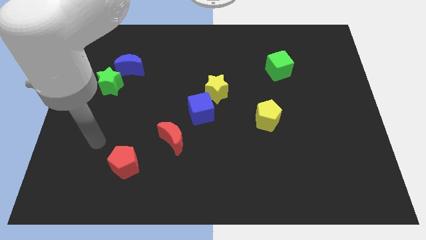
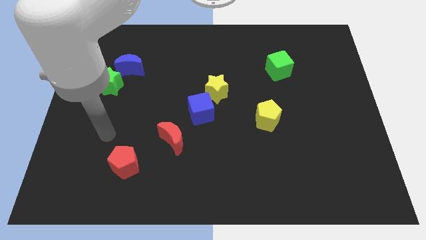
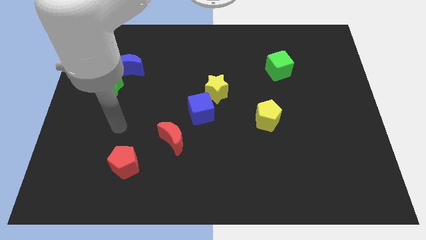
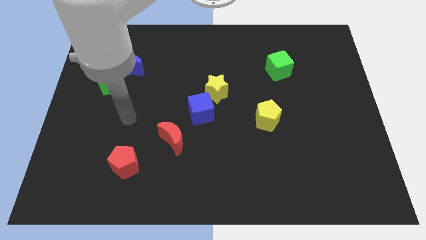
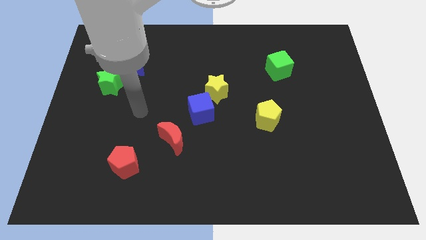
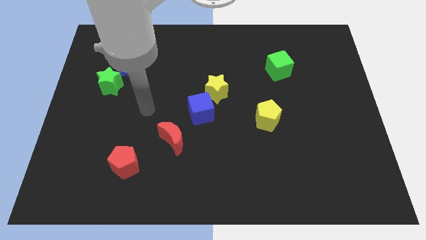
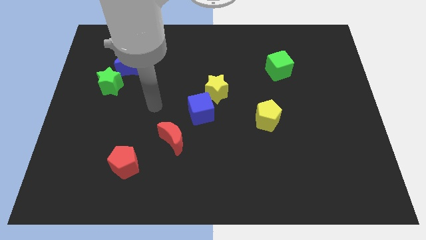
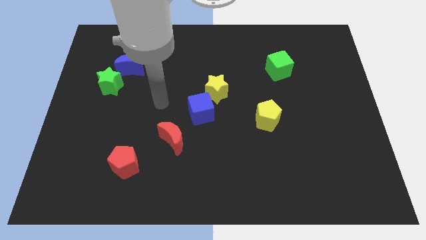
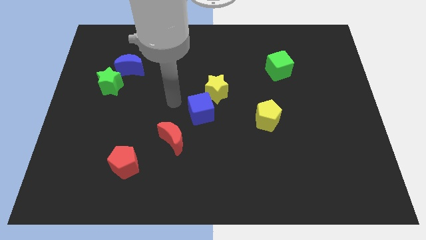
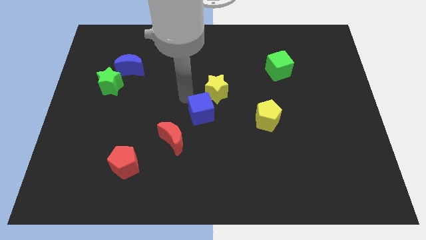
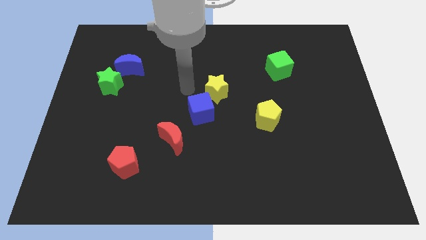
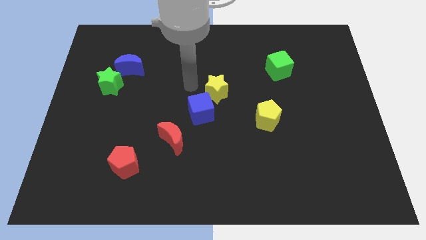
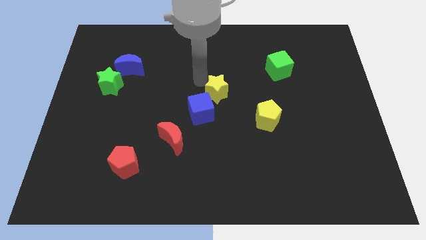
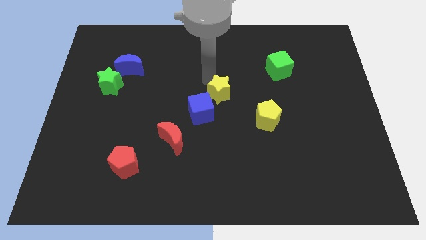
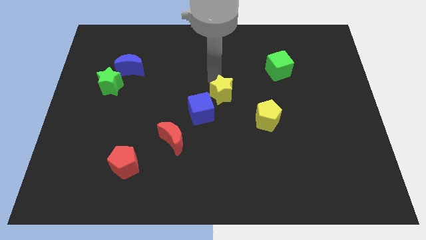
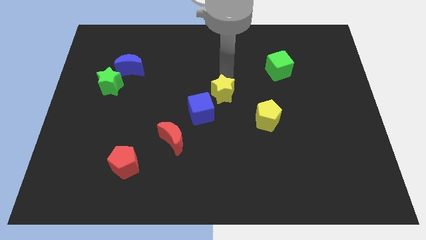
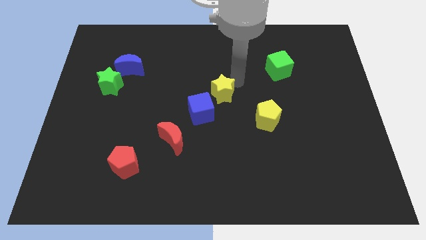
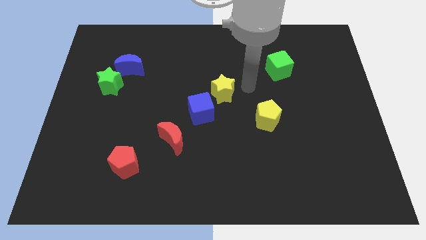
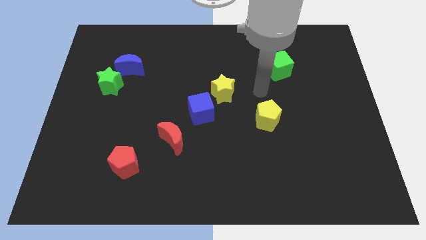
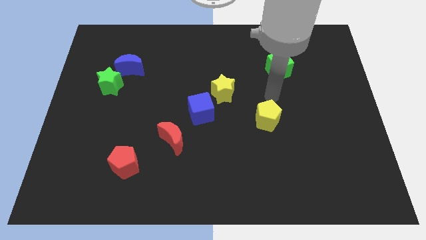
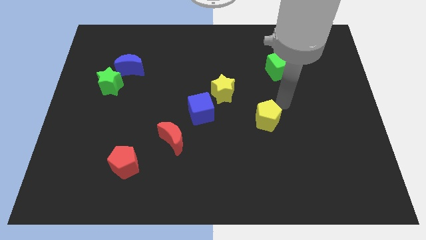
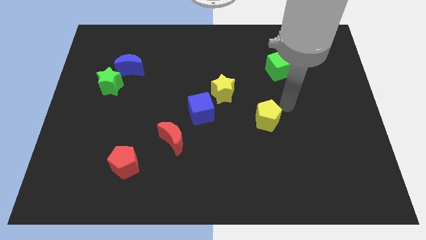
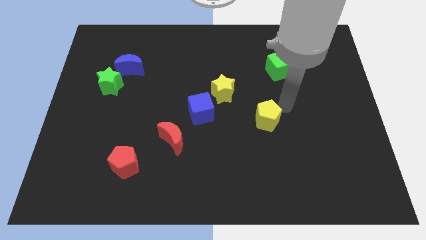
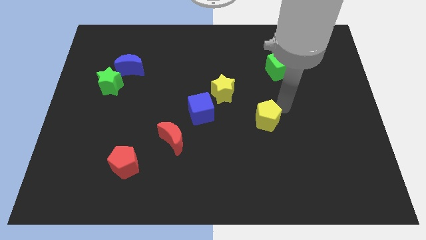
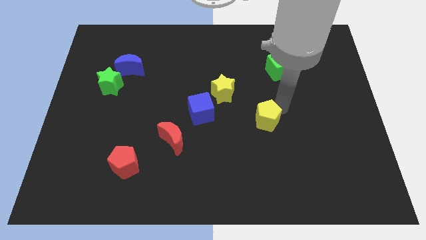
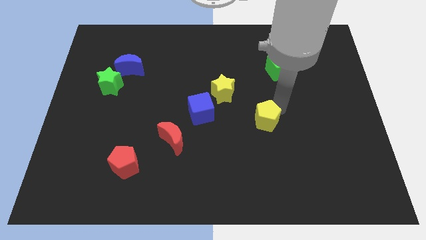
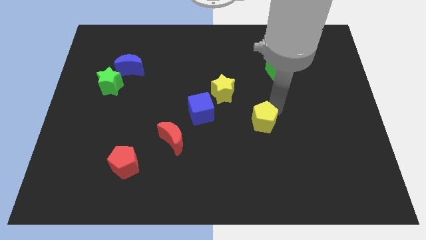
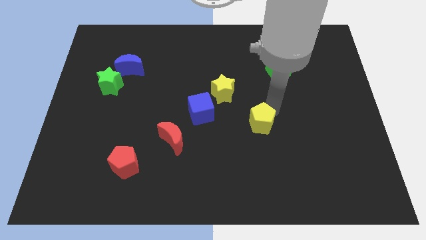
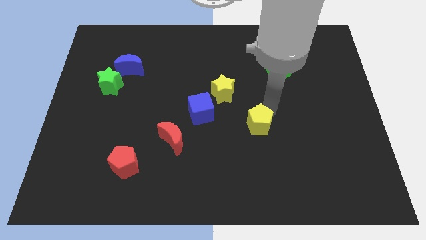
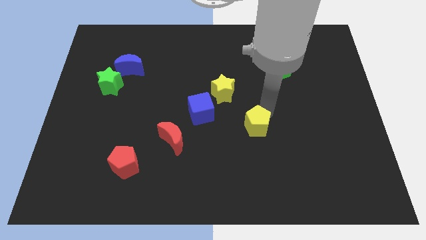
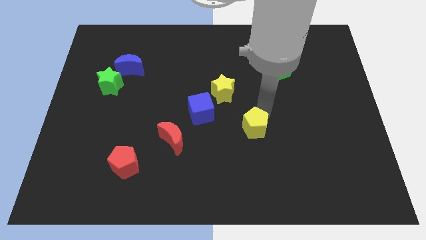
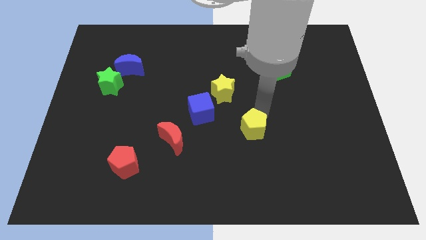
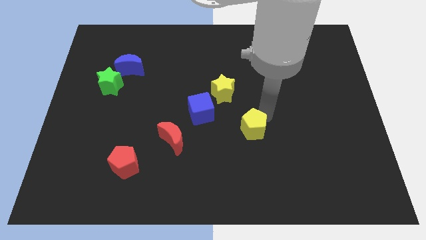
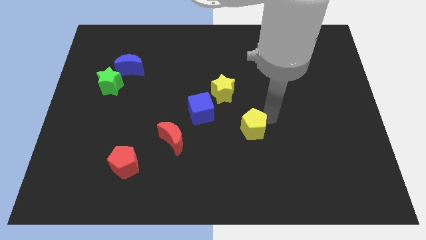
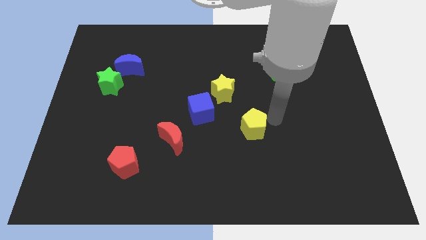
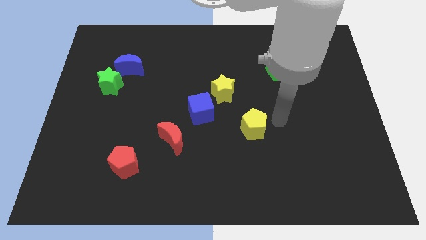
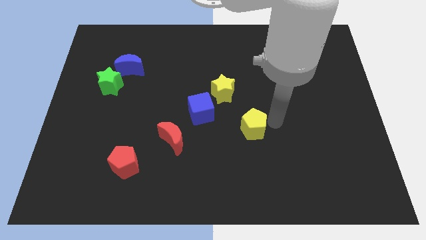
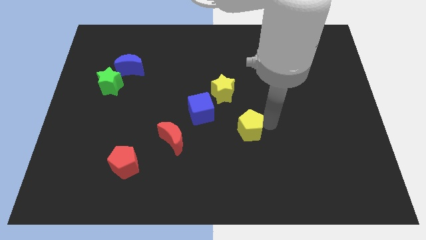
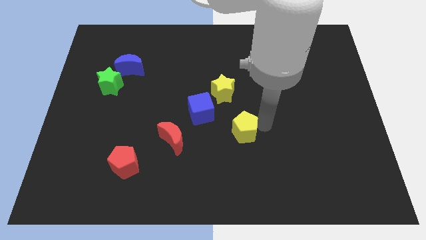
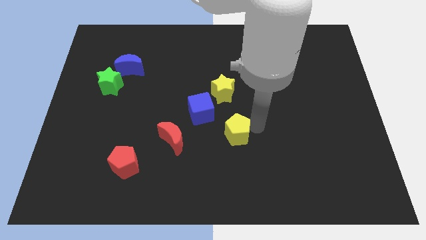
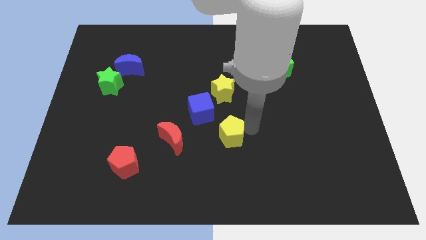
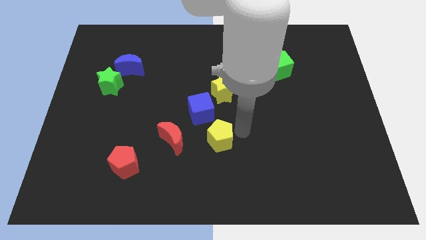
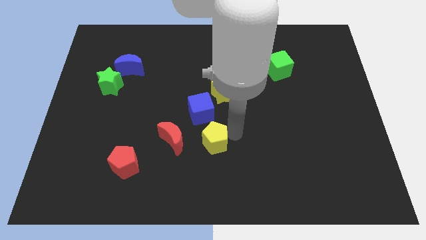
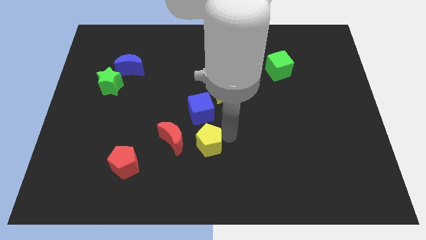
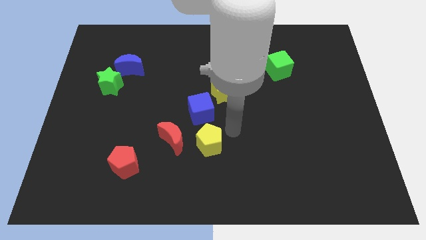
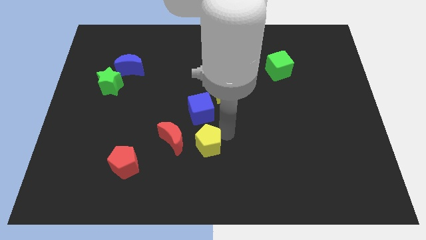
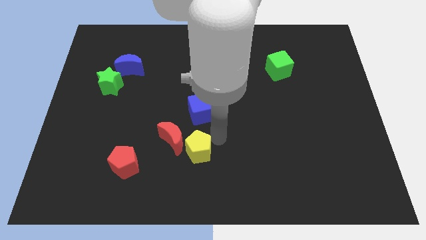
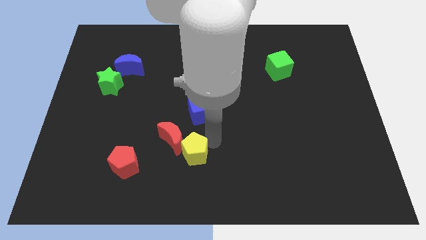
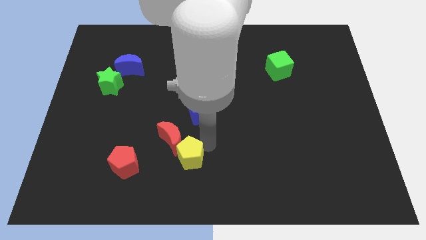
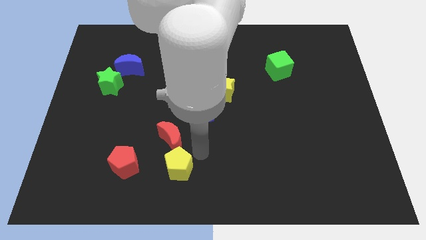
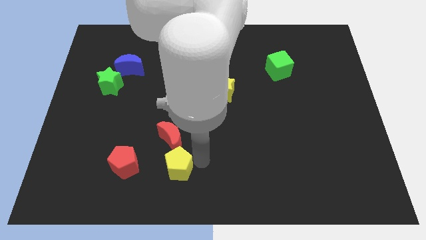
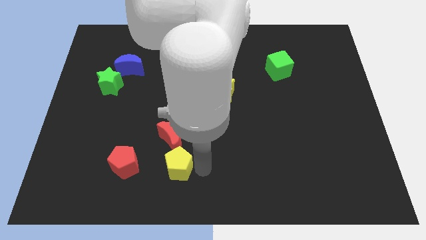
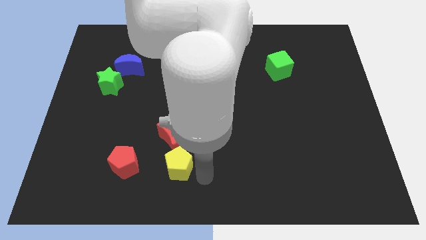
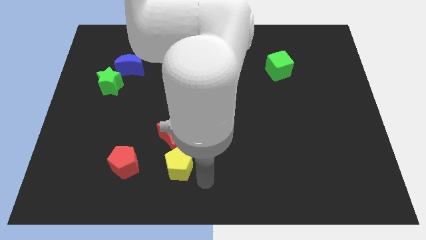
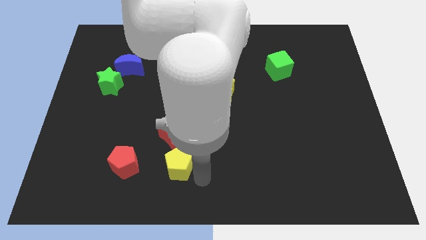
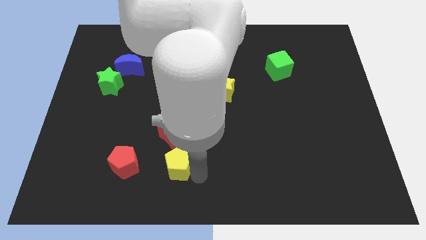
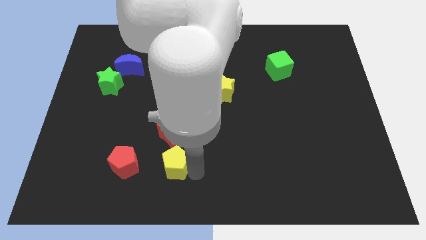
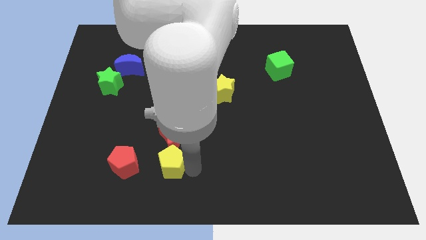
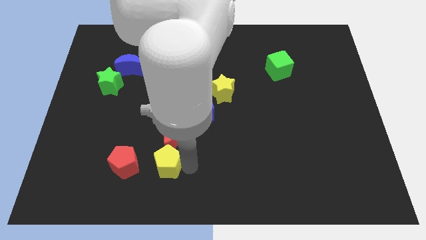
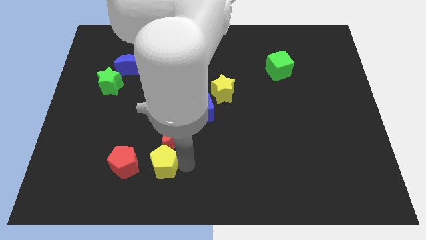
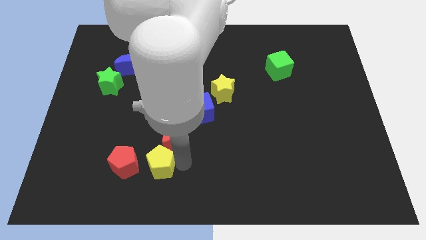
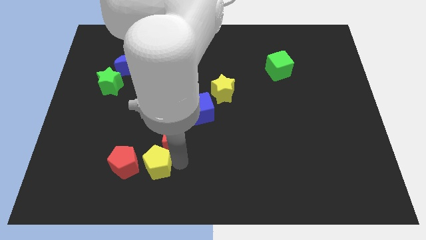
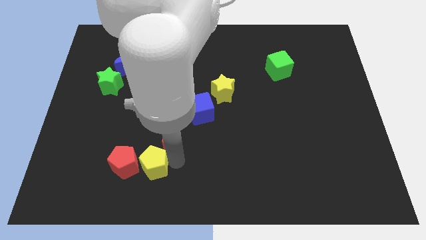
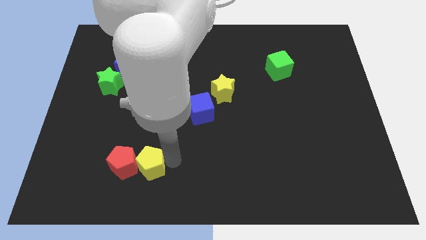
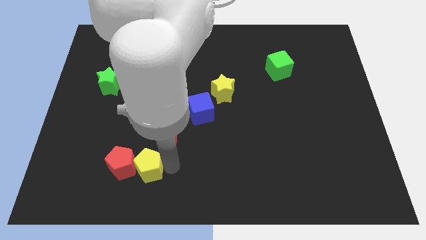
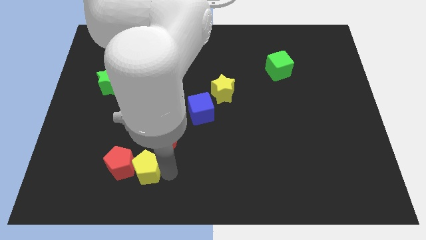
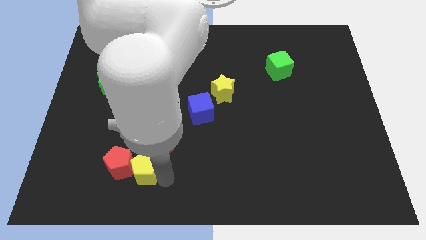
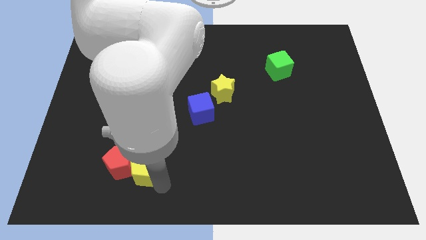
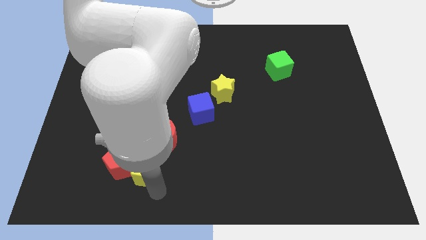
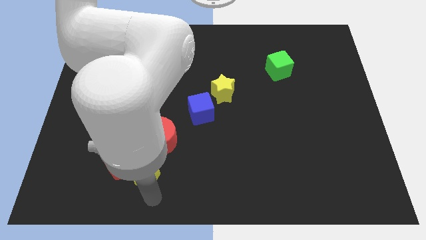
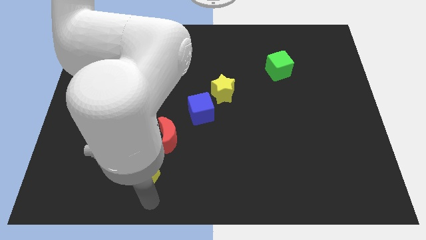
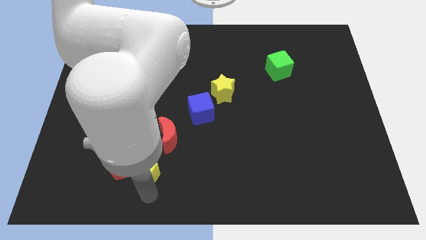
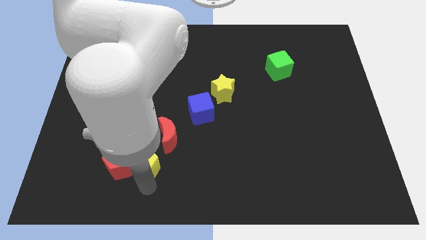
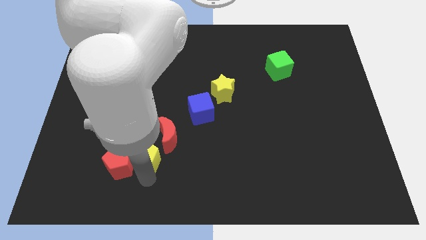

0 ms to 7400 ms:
move the yellow pentagon left

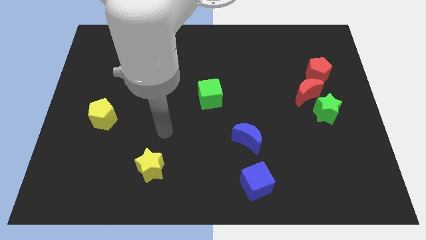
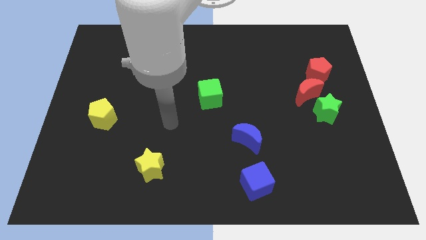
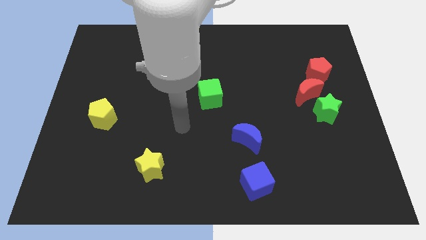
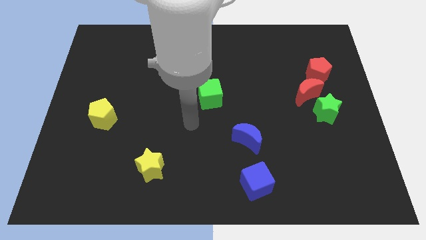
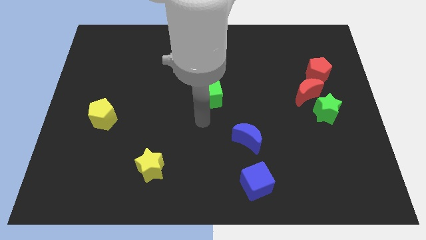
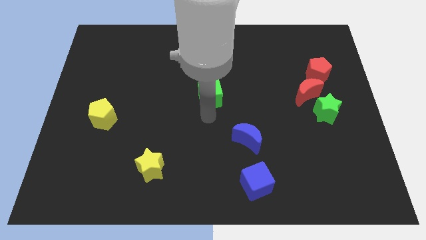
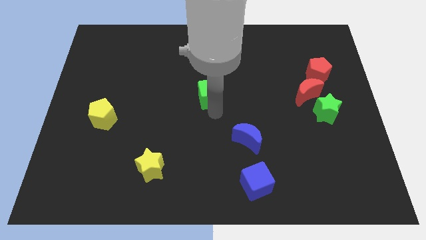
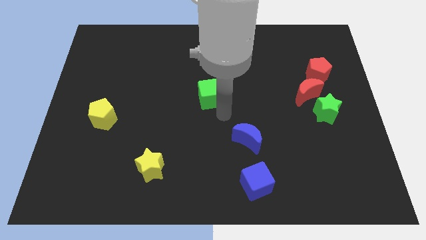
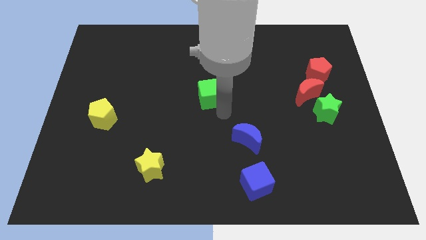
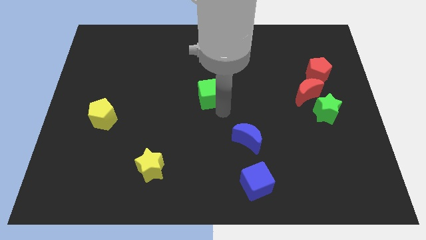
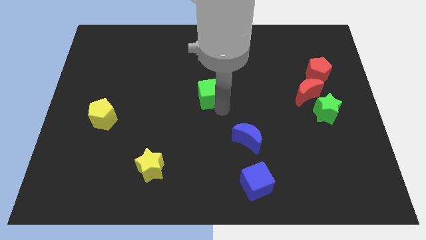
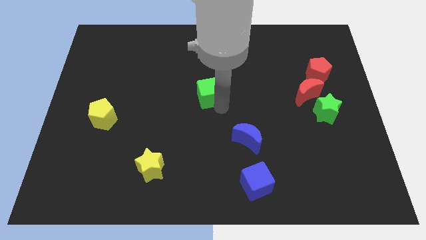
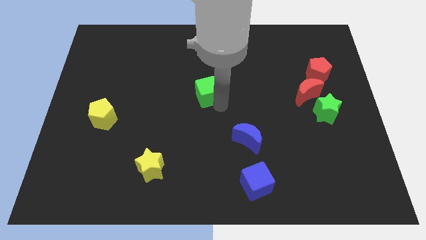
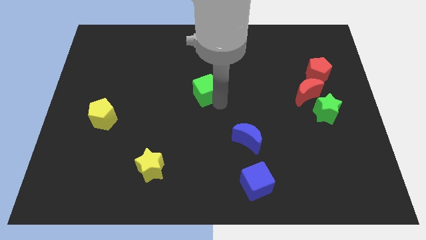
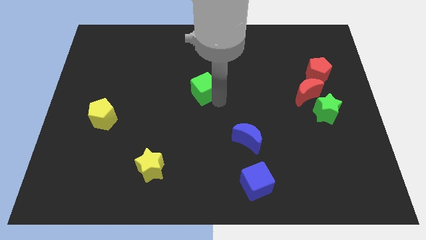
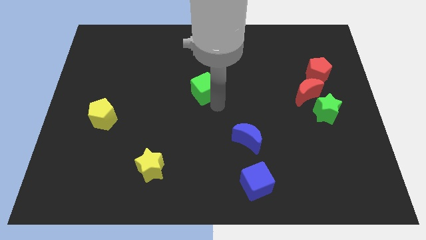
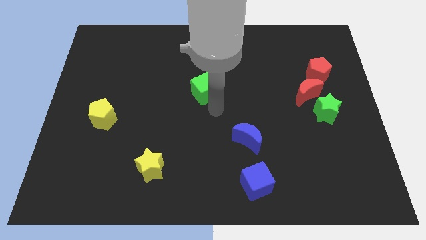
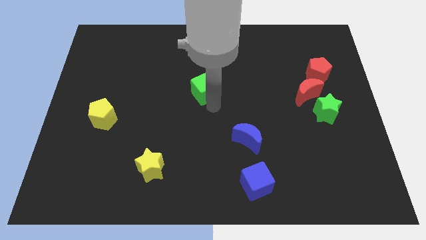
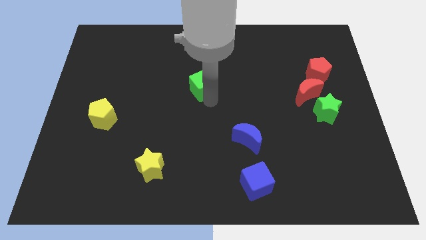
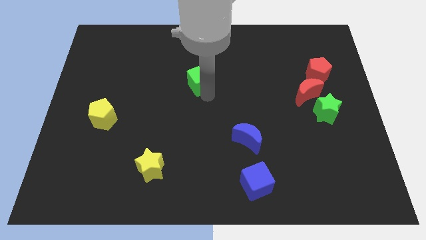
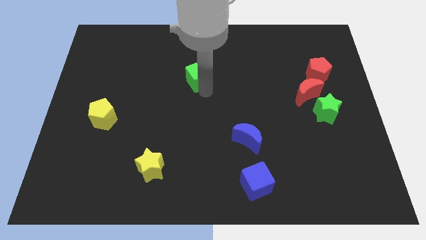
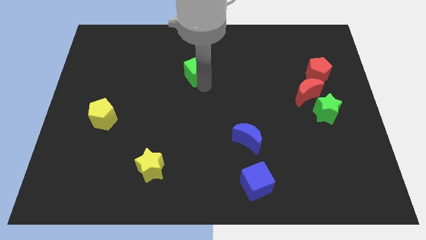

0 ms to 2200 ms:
push the green cube a little upwards and then to the left
